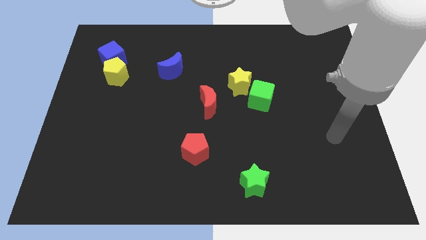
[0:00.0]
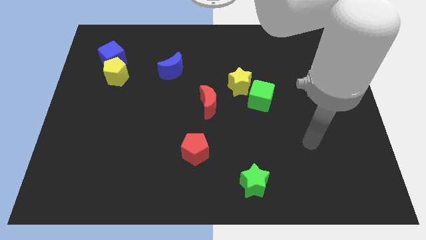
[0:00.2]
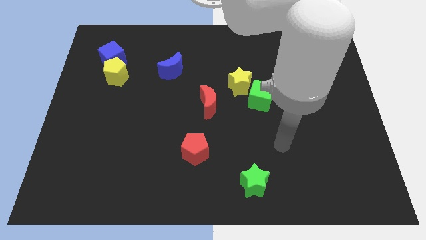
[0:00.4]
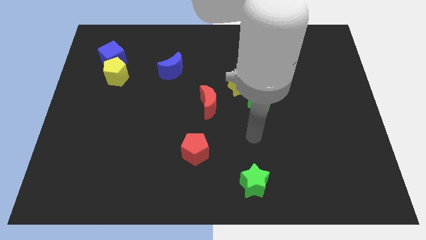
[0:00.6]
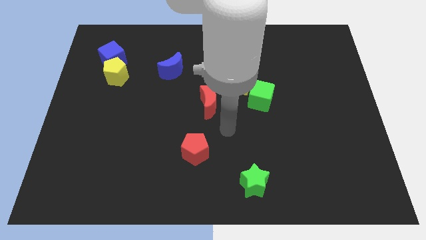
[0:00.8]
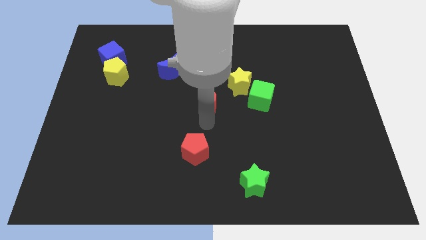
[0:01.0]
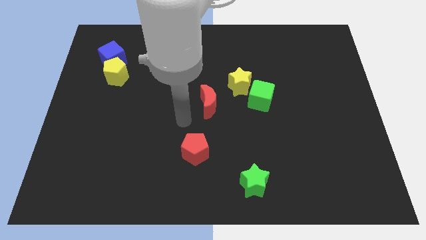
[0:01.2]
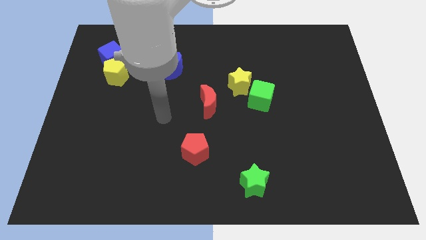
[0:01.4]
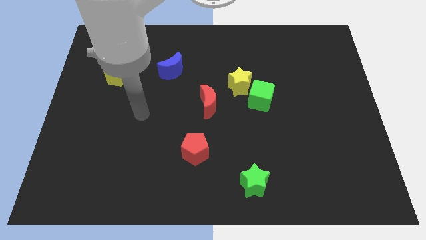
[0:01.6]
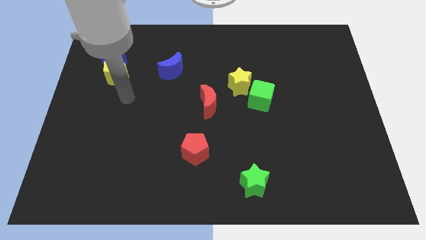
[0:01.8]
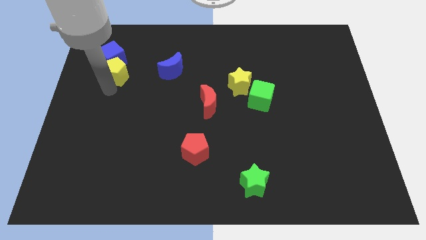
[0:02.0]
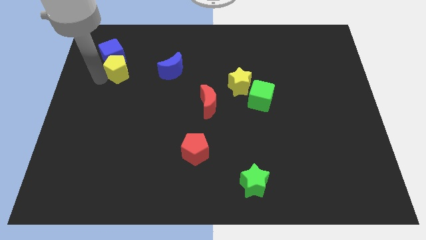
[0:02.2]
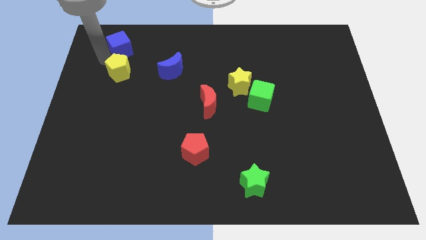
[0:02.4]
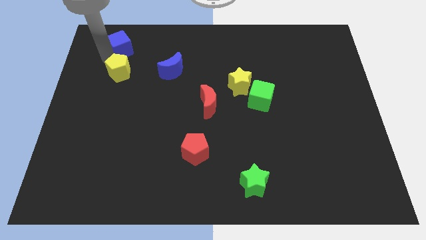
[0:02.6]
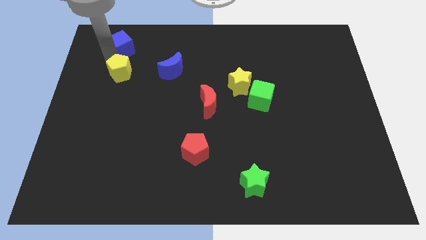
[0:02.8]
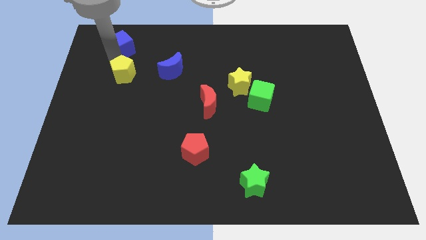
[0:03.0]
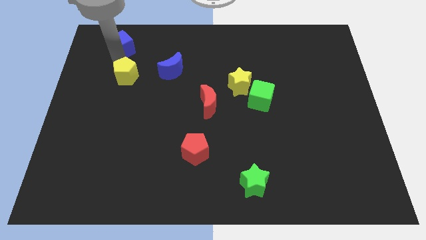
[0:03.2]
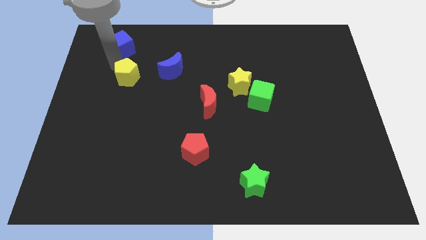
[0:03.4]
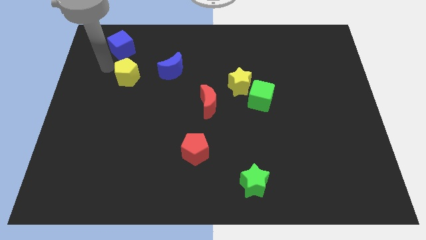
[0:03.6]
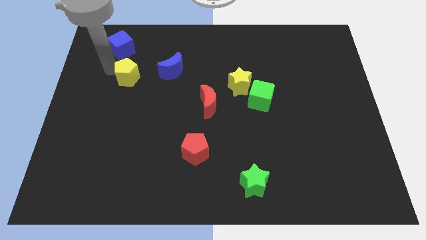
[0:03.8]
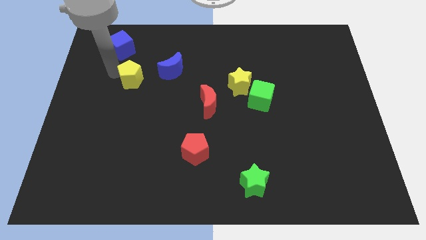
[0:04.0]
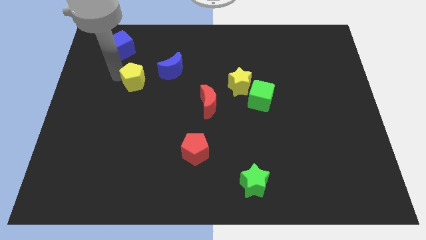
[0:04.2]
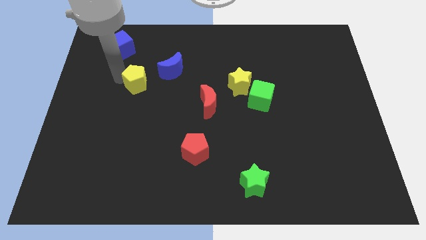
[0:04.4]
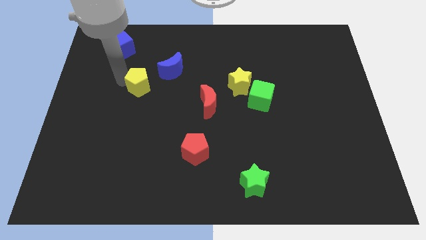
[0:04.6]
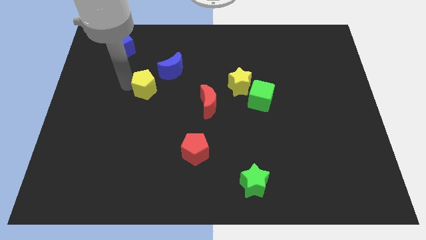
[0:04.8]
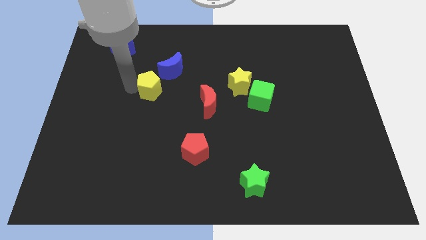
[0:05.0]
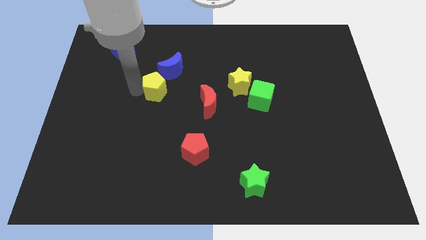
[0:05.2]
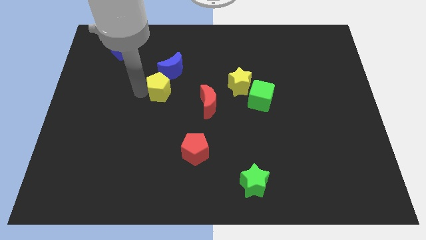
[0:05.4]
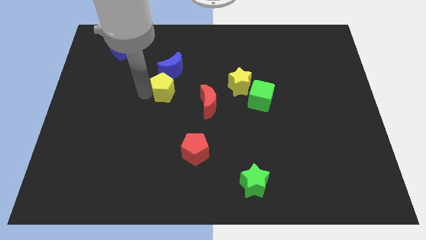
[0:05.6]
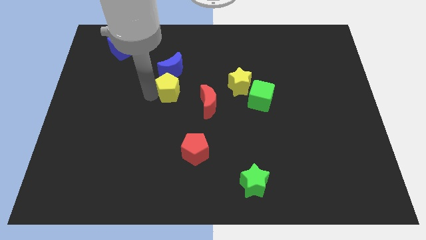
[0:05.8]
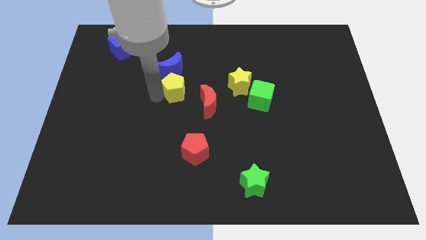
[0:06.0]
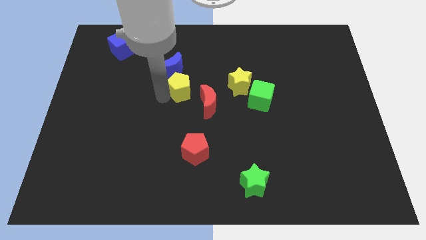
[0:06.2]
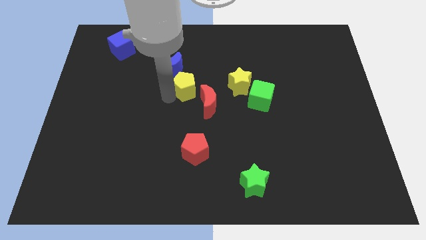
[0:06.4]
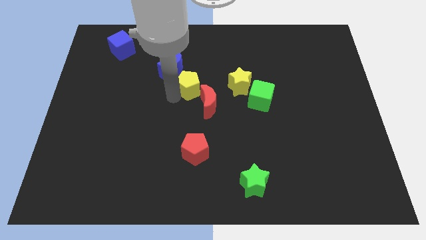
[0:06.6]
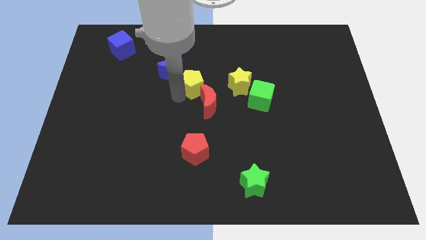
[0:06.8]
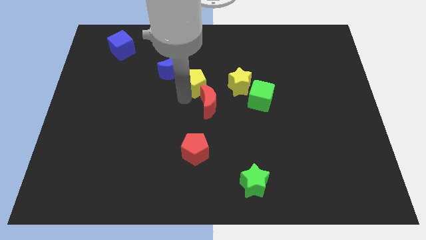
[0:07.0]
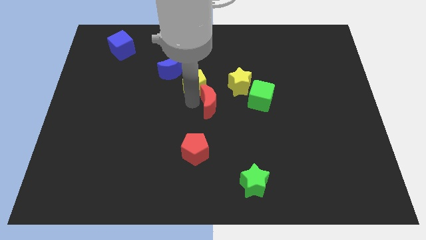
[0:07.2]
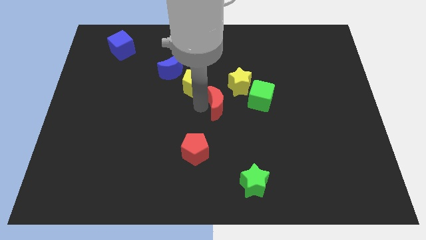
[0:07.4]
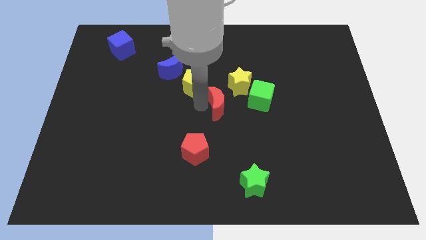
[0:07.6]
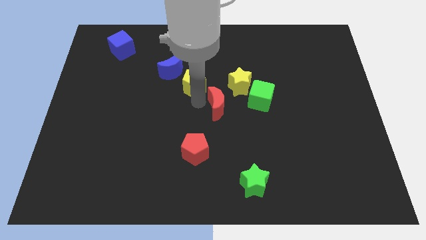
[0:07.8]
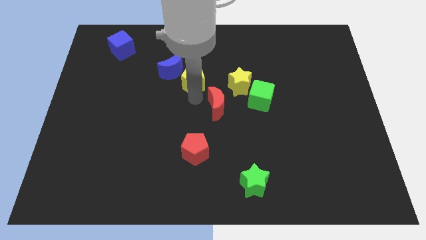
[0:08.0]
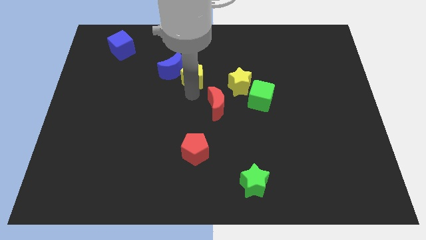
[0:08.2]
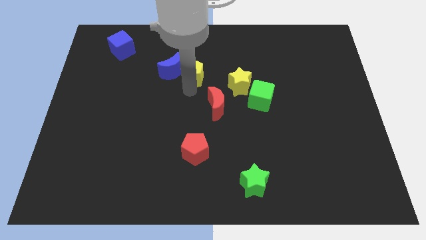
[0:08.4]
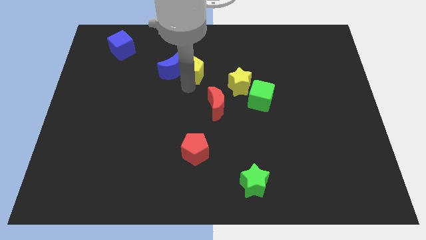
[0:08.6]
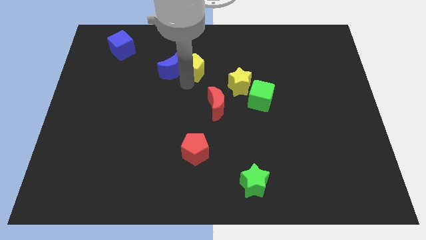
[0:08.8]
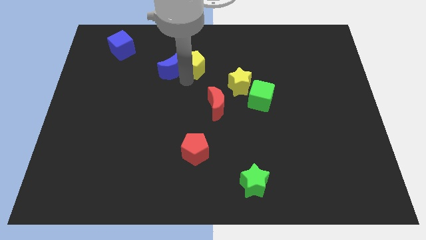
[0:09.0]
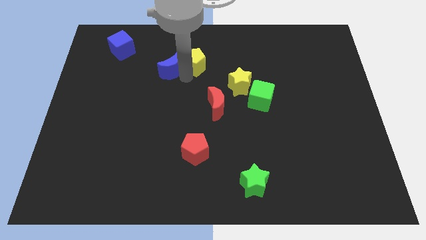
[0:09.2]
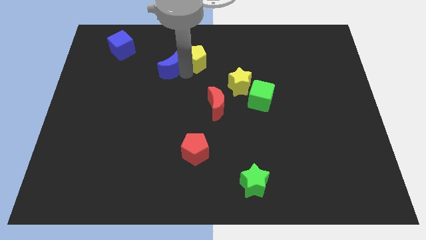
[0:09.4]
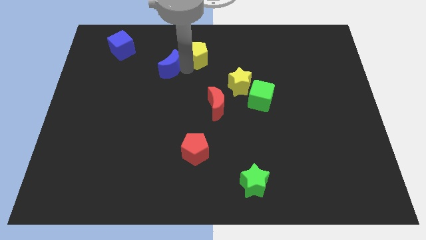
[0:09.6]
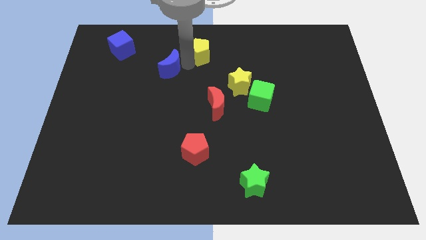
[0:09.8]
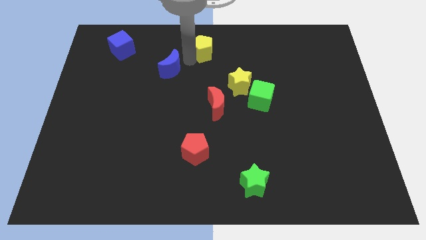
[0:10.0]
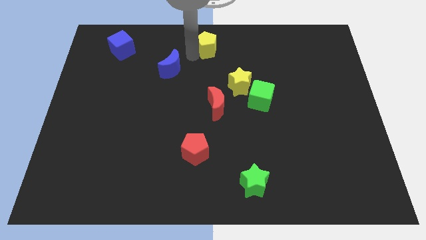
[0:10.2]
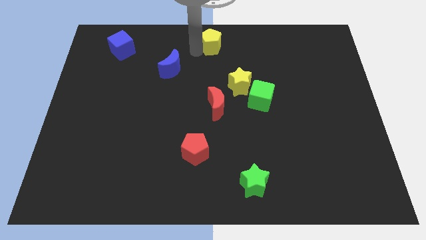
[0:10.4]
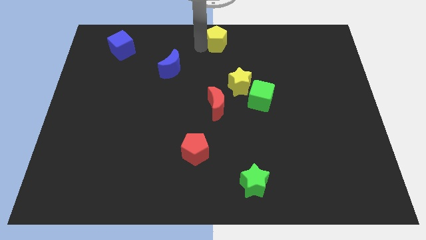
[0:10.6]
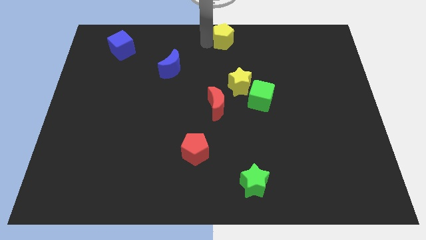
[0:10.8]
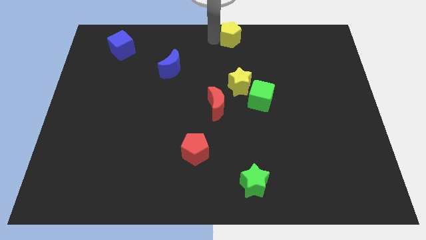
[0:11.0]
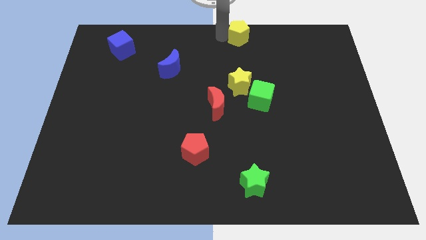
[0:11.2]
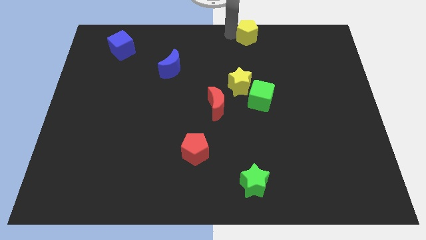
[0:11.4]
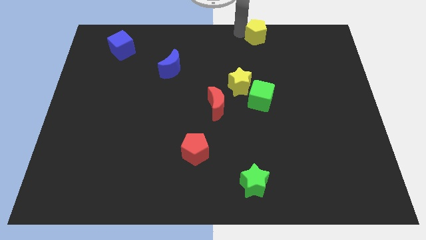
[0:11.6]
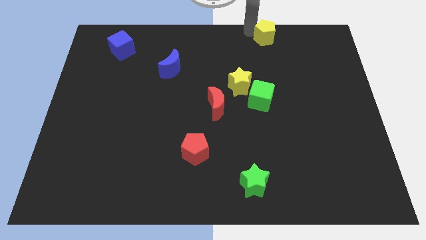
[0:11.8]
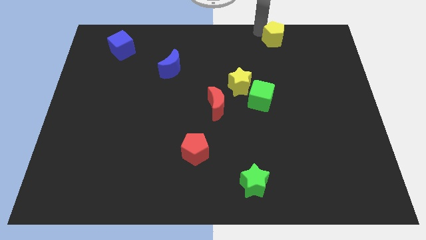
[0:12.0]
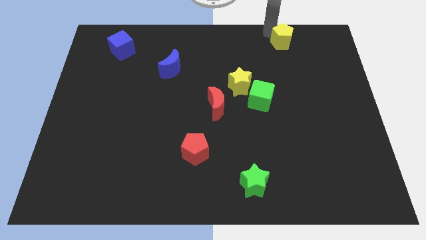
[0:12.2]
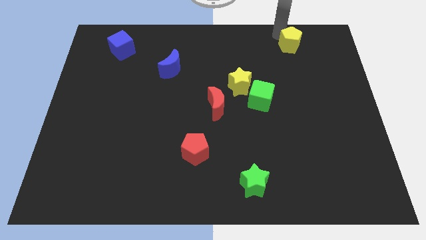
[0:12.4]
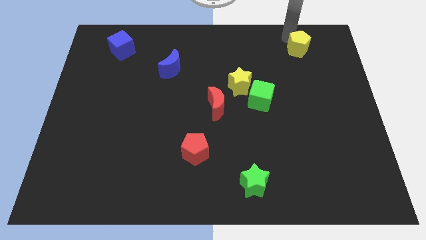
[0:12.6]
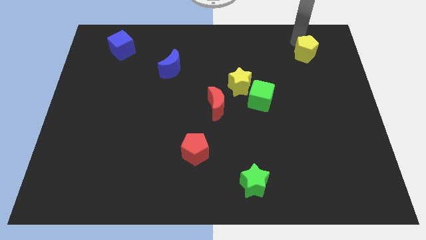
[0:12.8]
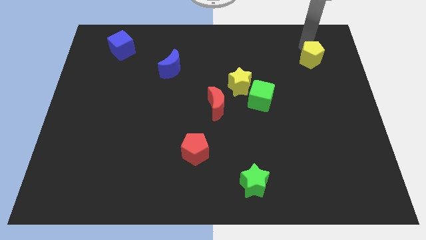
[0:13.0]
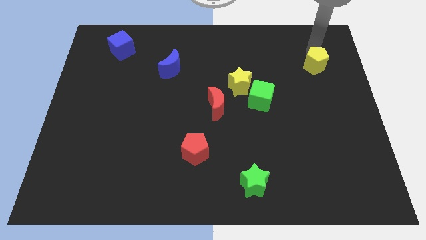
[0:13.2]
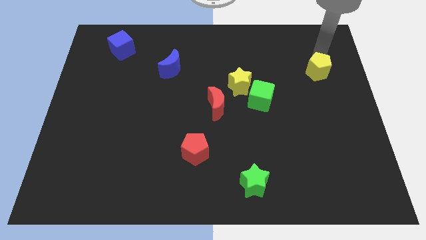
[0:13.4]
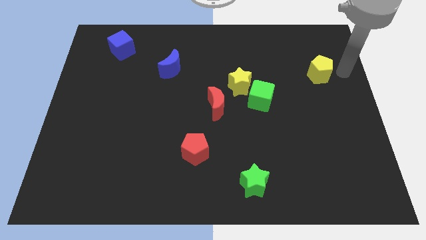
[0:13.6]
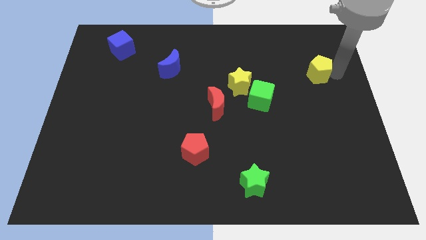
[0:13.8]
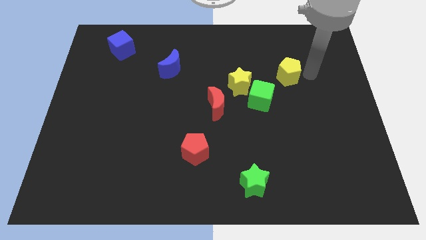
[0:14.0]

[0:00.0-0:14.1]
put the yellow pentagon to the right of the yellow star
